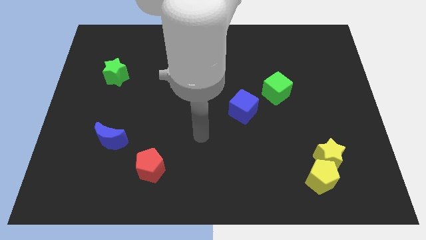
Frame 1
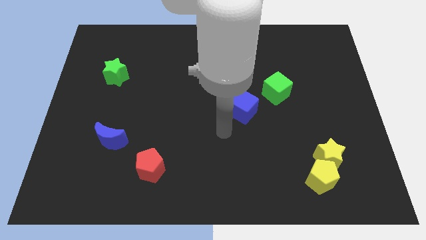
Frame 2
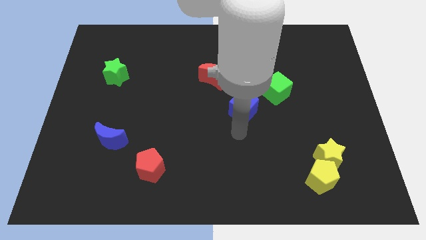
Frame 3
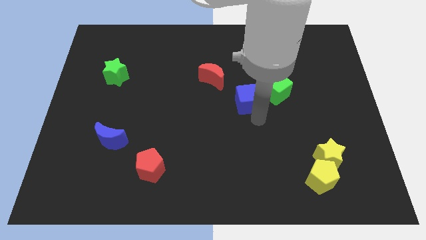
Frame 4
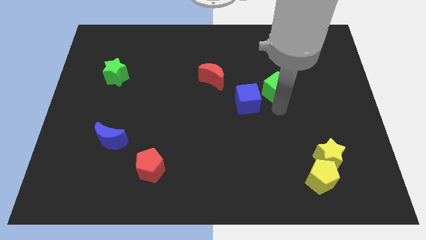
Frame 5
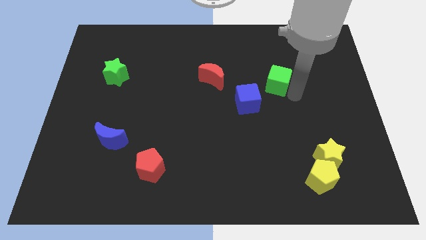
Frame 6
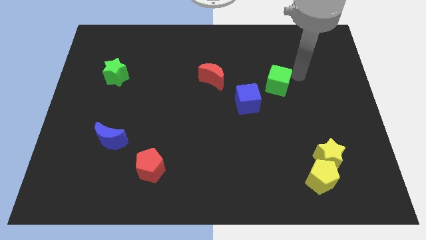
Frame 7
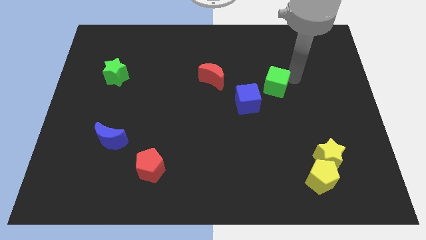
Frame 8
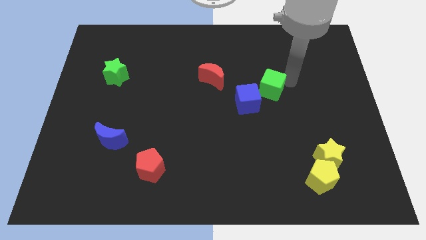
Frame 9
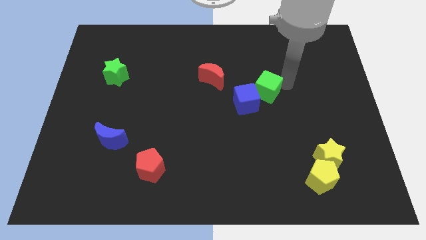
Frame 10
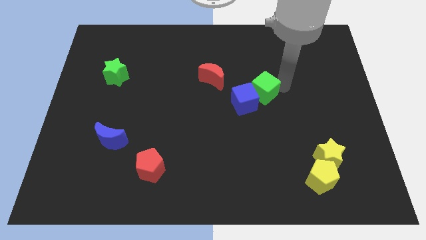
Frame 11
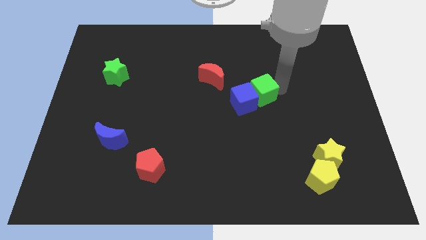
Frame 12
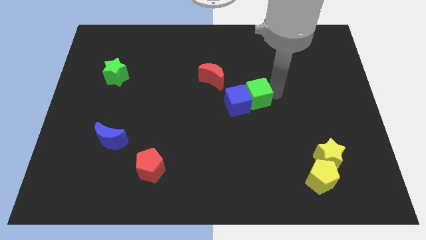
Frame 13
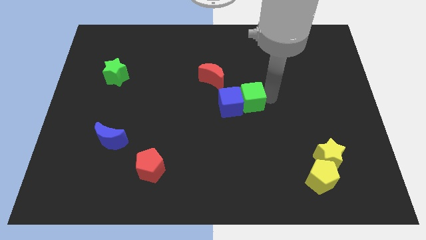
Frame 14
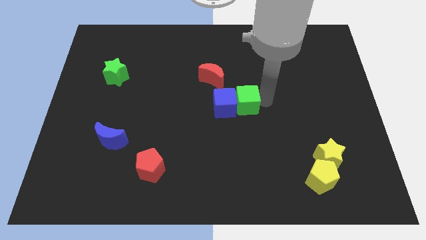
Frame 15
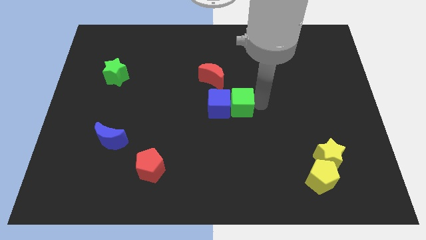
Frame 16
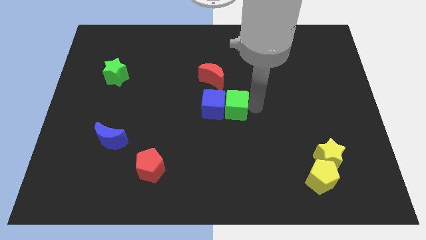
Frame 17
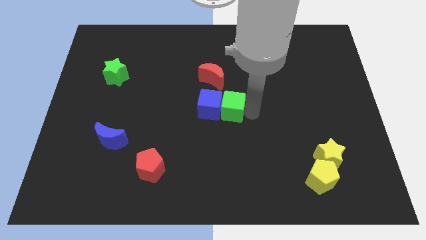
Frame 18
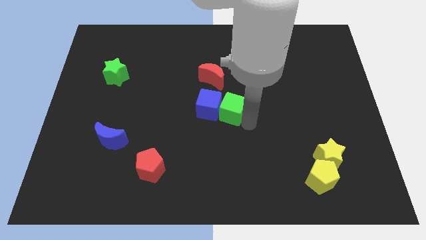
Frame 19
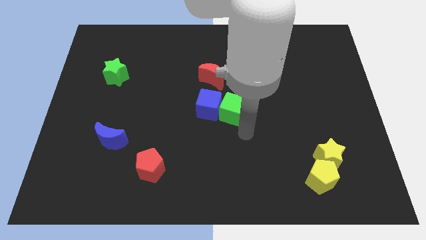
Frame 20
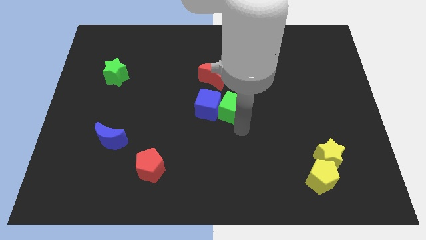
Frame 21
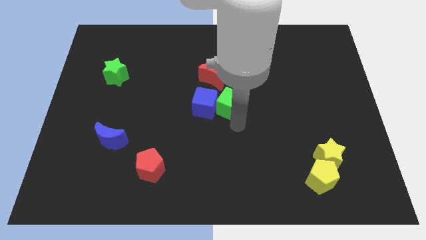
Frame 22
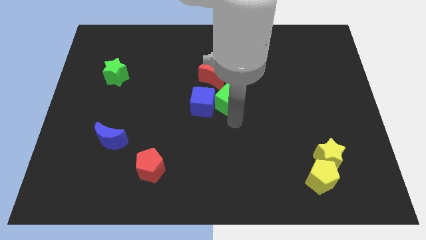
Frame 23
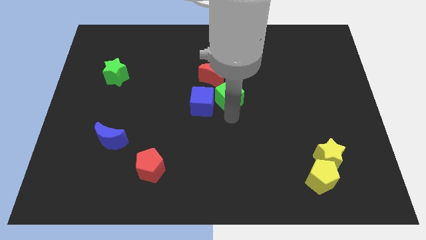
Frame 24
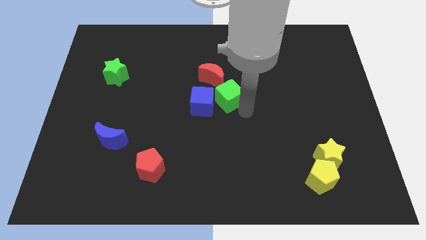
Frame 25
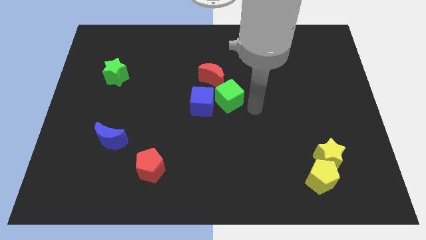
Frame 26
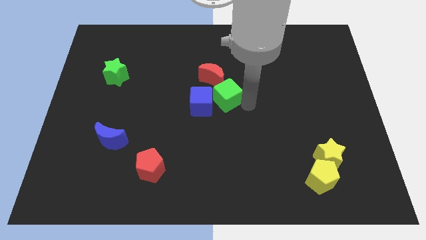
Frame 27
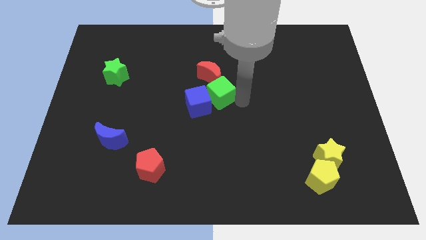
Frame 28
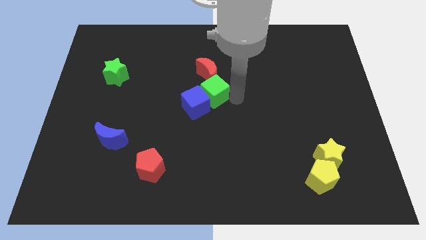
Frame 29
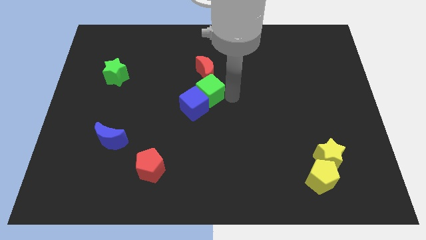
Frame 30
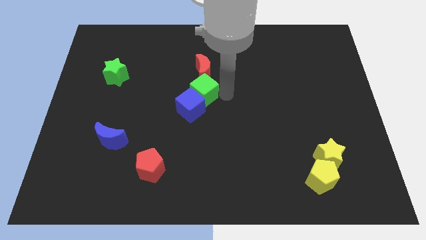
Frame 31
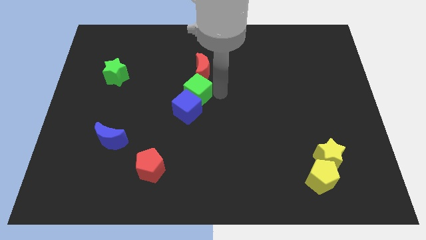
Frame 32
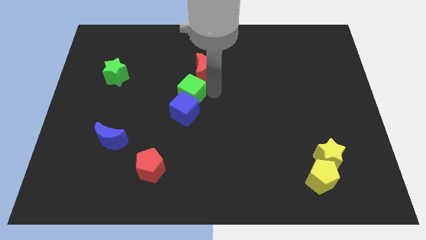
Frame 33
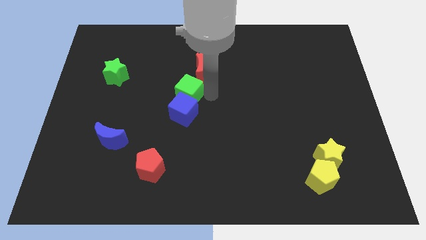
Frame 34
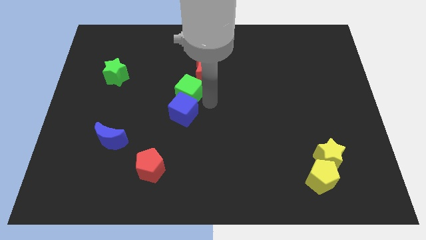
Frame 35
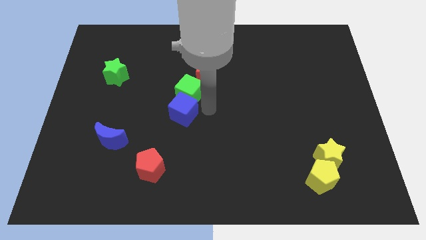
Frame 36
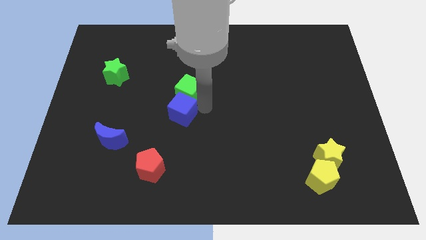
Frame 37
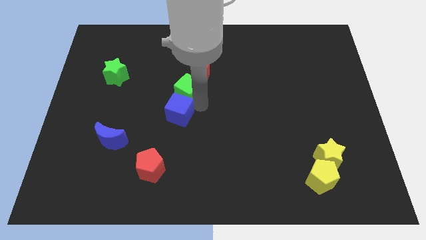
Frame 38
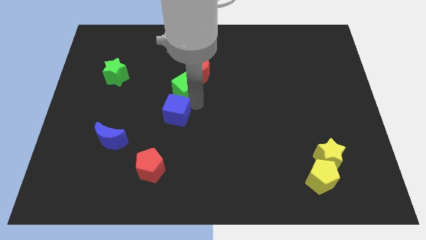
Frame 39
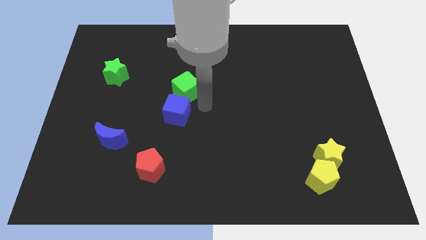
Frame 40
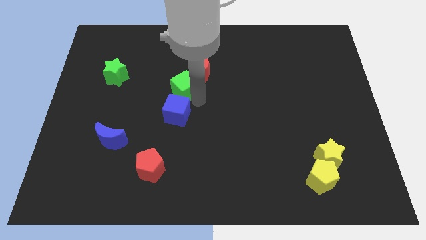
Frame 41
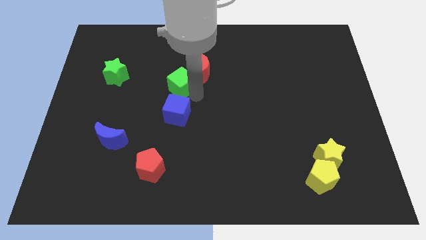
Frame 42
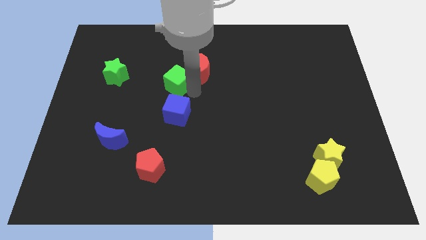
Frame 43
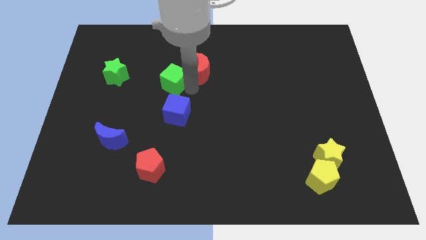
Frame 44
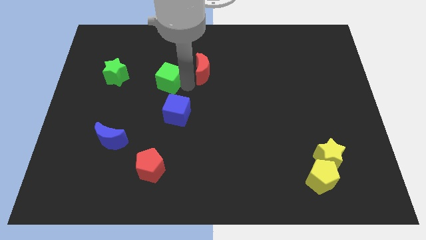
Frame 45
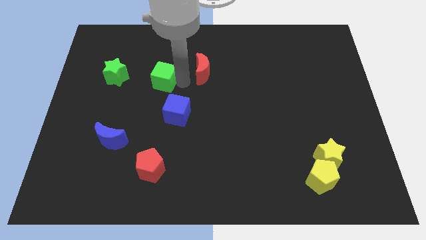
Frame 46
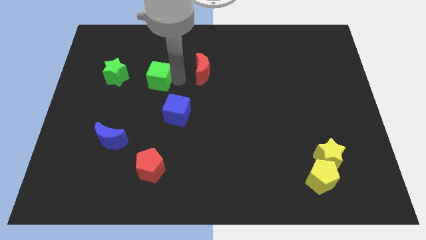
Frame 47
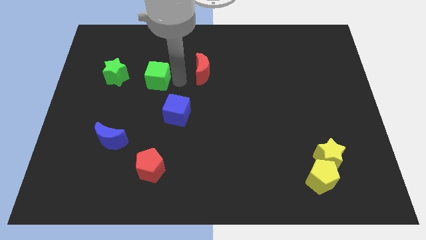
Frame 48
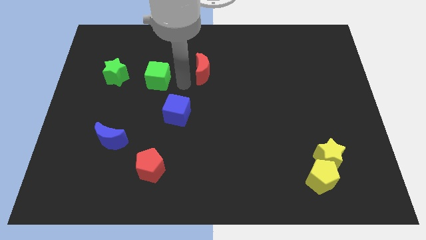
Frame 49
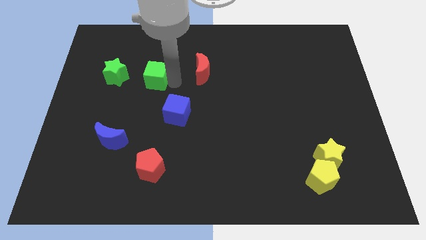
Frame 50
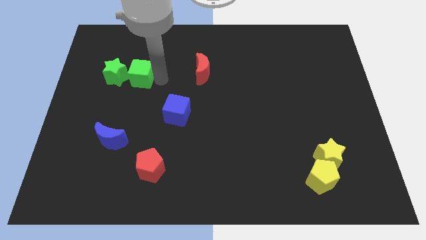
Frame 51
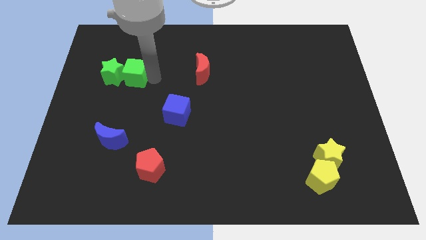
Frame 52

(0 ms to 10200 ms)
slide the green cube to the green star

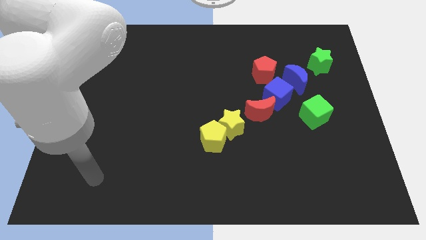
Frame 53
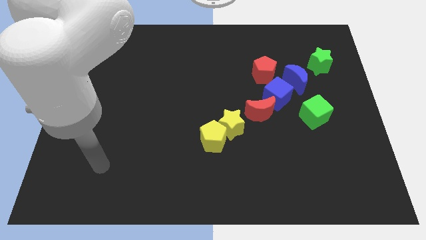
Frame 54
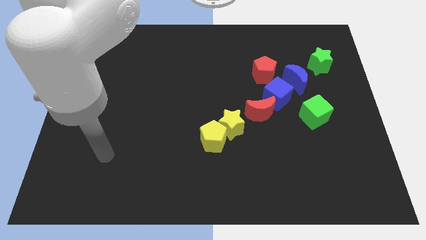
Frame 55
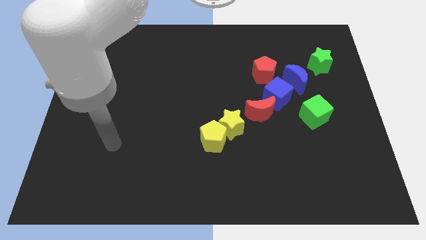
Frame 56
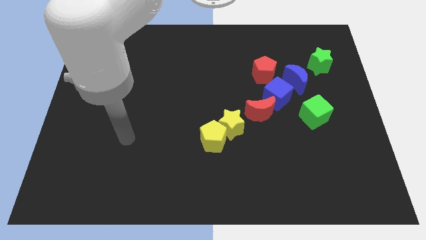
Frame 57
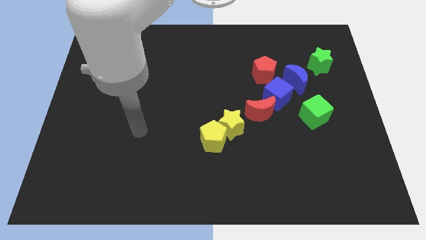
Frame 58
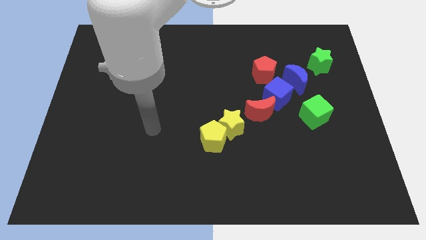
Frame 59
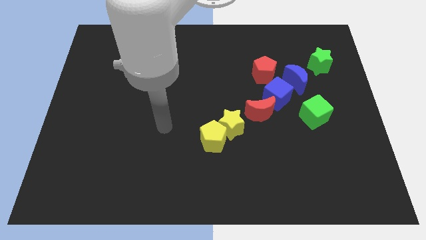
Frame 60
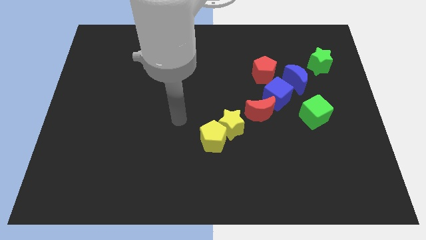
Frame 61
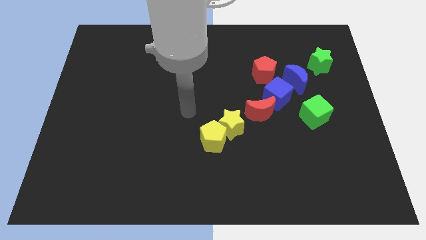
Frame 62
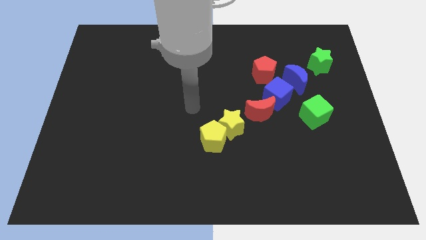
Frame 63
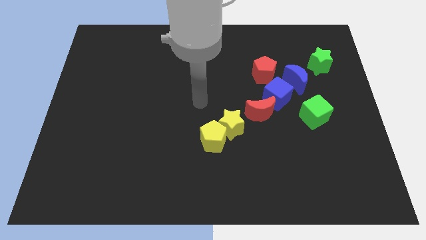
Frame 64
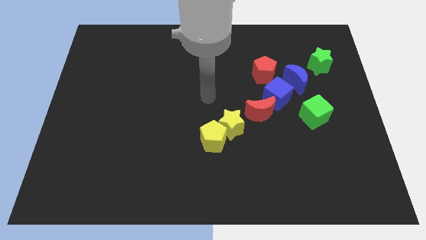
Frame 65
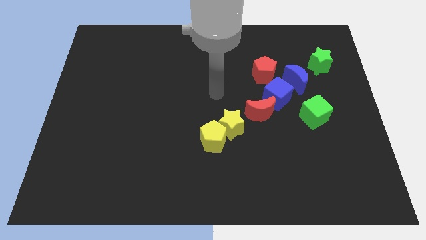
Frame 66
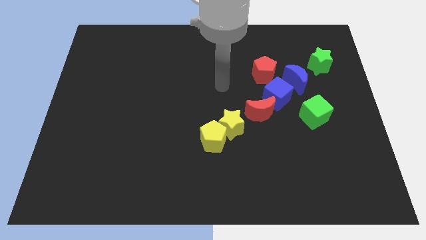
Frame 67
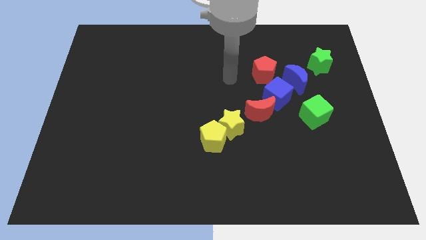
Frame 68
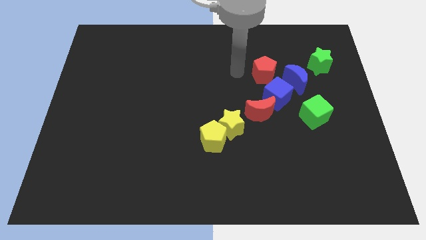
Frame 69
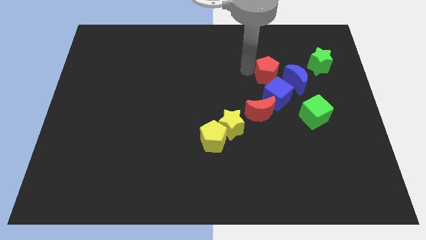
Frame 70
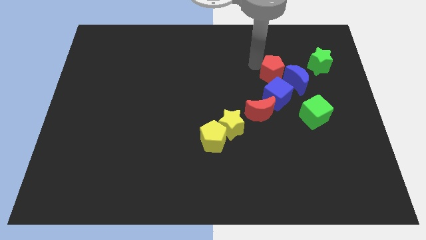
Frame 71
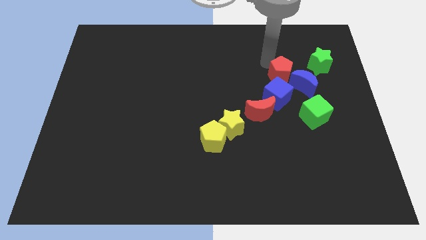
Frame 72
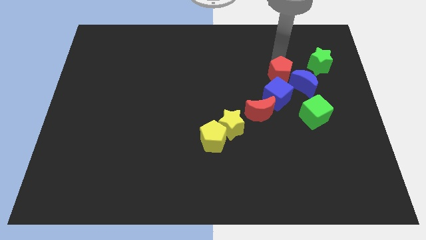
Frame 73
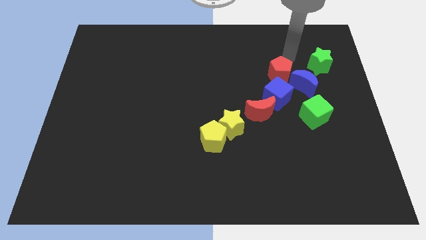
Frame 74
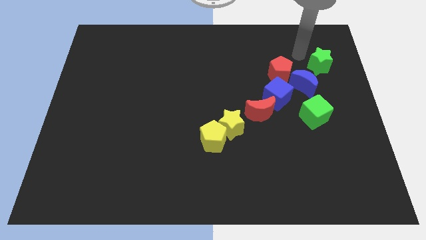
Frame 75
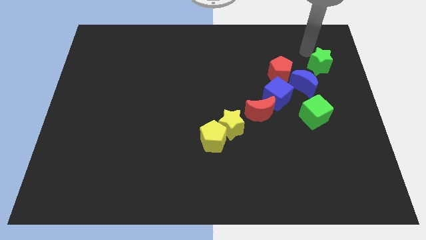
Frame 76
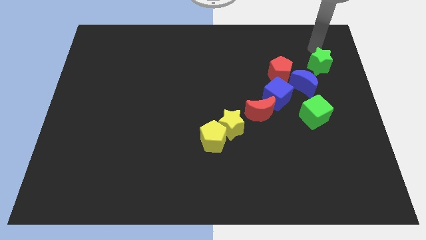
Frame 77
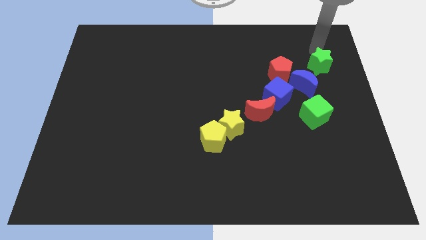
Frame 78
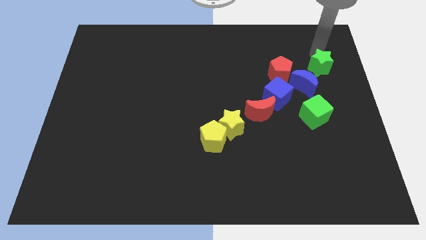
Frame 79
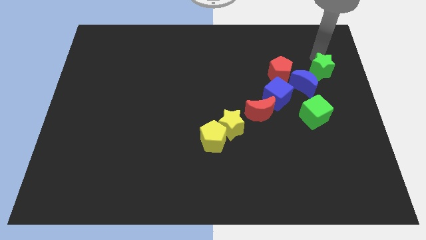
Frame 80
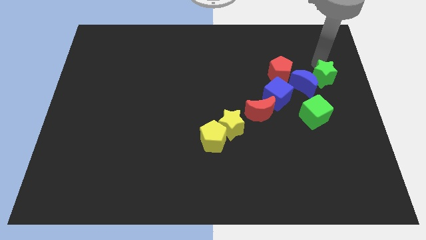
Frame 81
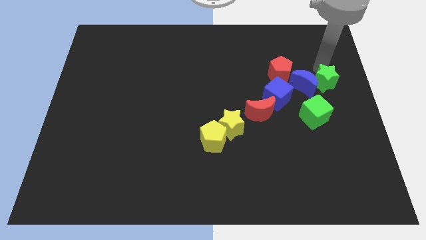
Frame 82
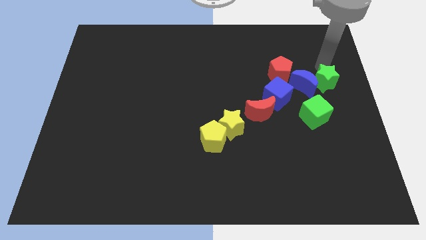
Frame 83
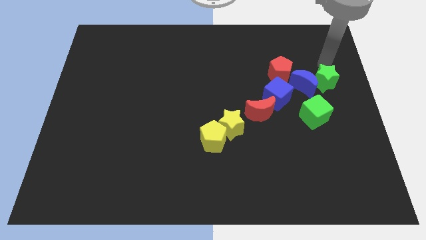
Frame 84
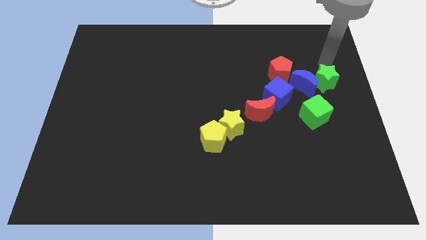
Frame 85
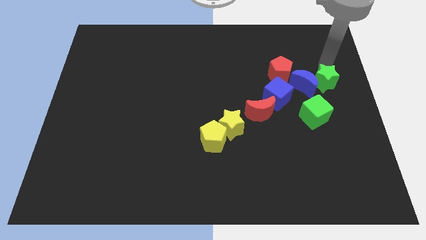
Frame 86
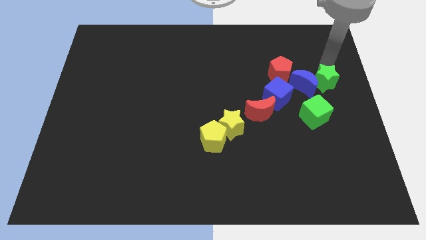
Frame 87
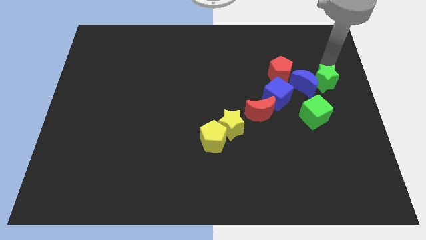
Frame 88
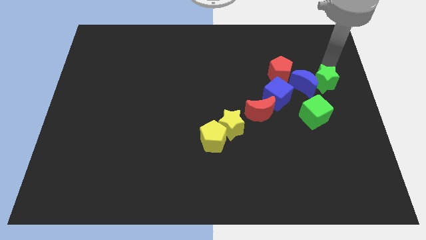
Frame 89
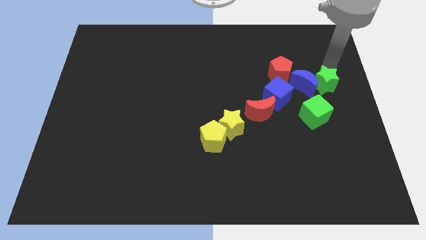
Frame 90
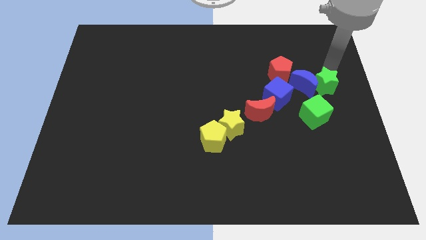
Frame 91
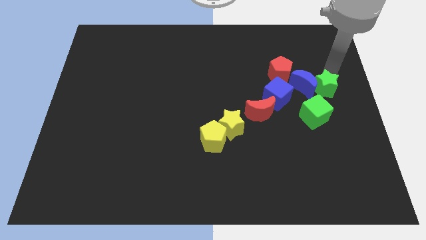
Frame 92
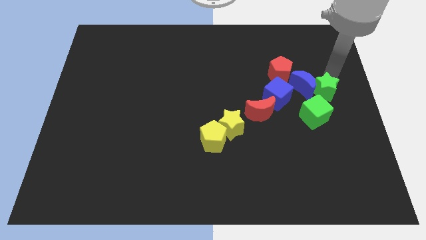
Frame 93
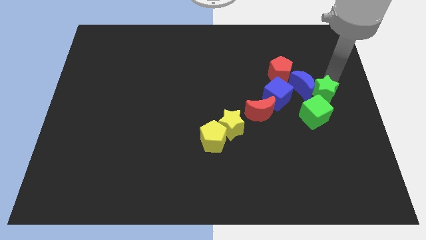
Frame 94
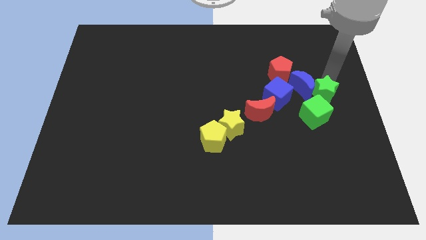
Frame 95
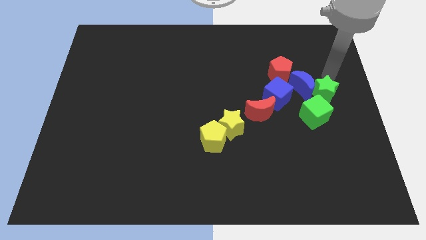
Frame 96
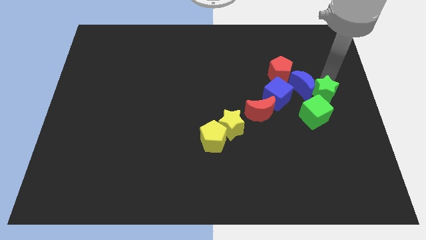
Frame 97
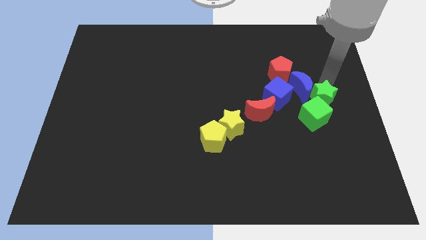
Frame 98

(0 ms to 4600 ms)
push the green star to the green cube
